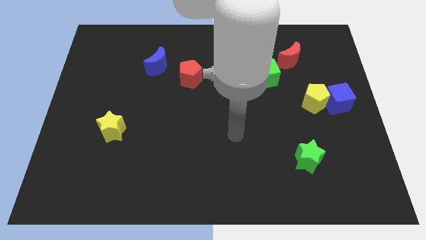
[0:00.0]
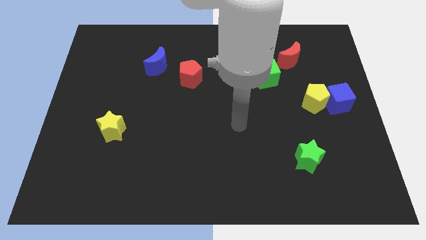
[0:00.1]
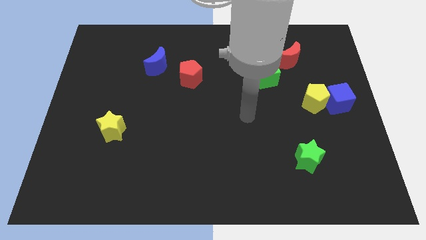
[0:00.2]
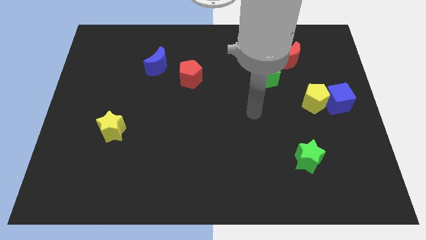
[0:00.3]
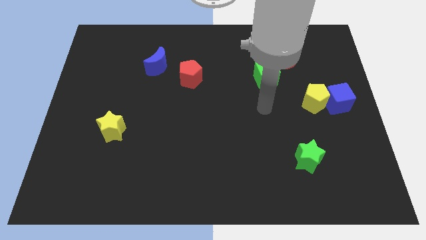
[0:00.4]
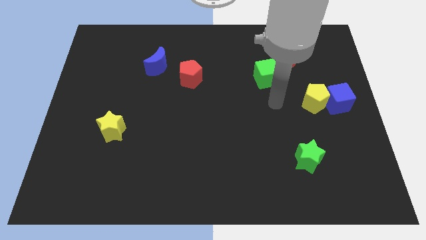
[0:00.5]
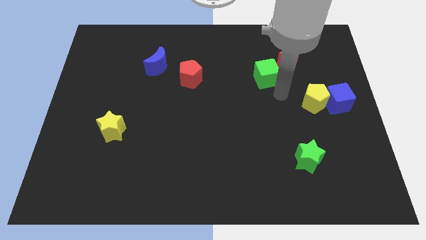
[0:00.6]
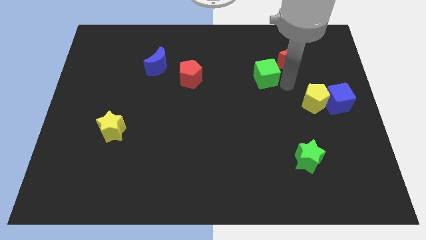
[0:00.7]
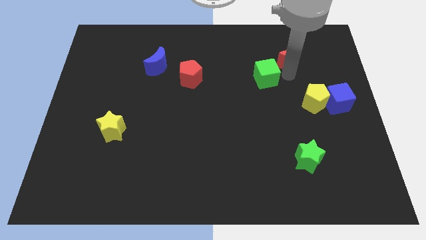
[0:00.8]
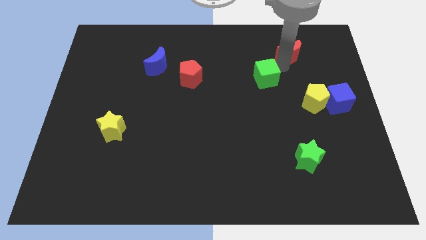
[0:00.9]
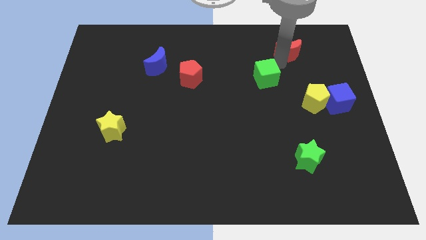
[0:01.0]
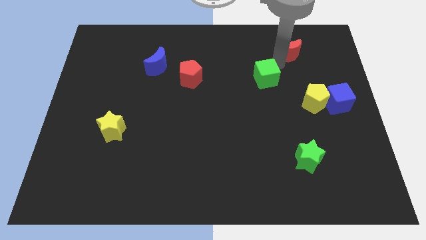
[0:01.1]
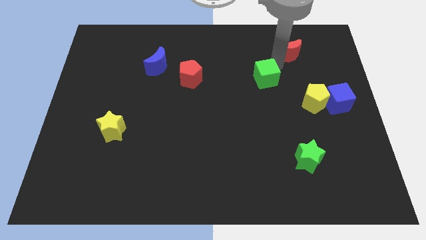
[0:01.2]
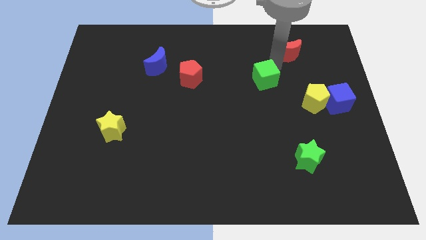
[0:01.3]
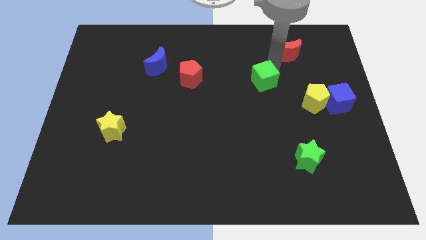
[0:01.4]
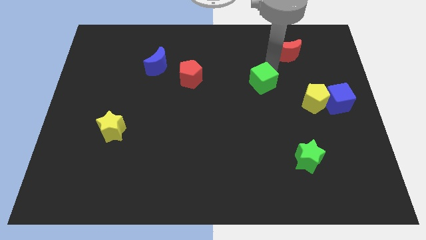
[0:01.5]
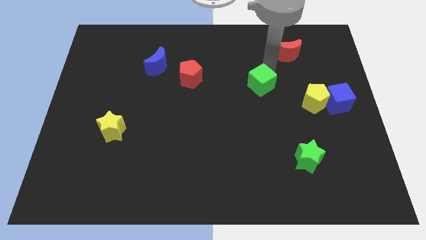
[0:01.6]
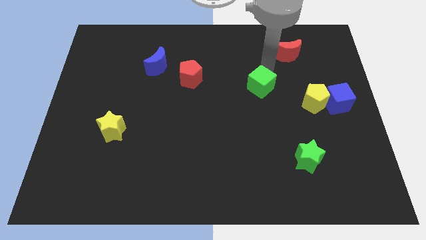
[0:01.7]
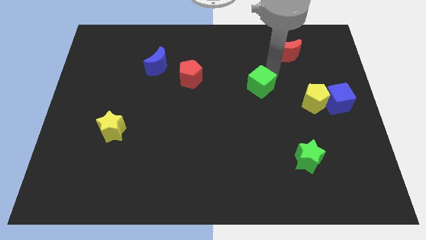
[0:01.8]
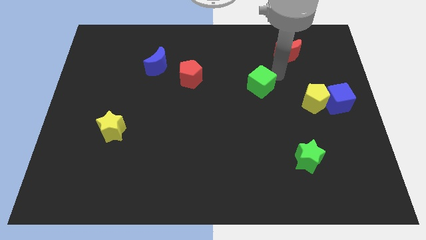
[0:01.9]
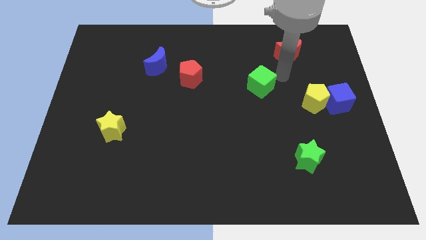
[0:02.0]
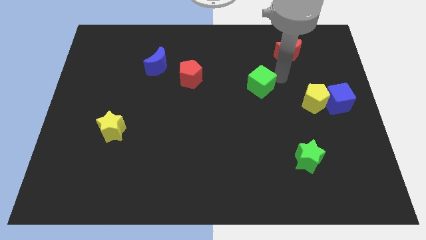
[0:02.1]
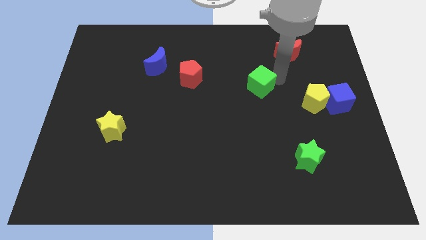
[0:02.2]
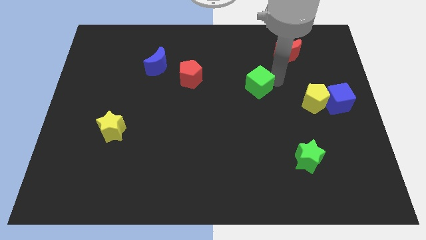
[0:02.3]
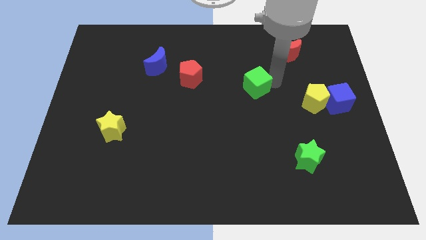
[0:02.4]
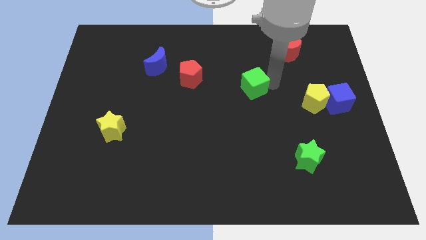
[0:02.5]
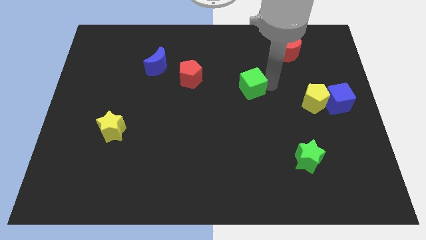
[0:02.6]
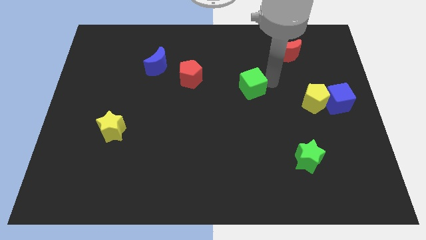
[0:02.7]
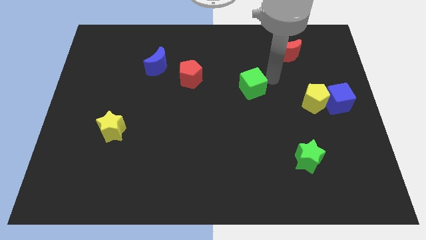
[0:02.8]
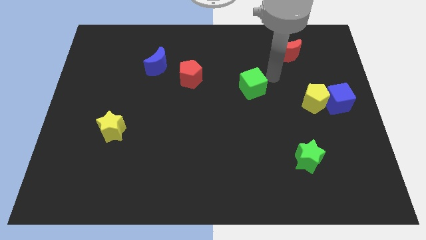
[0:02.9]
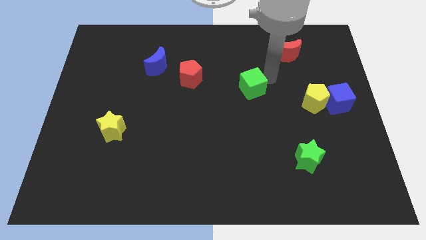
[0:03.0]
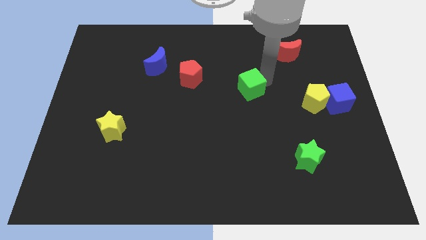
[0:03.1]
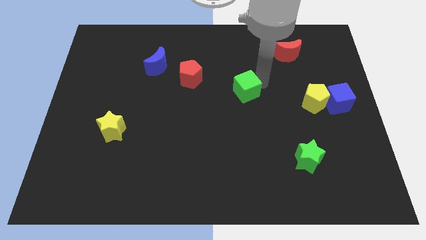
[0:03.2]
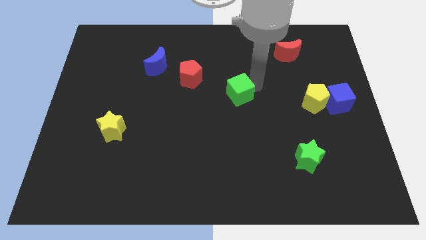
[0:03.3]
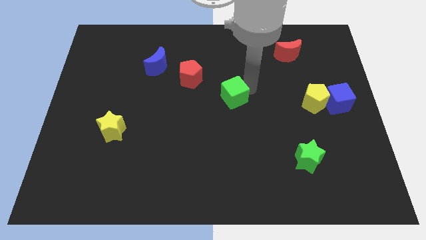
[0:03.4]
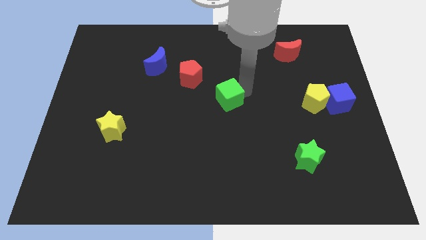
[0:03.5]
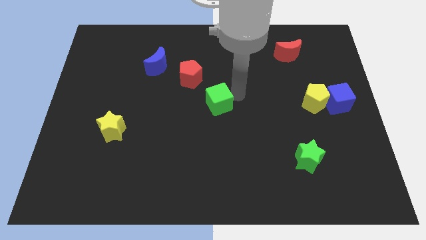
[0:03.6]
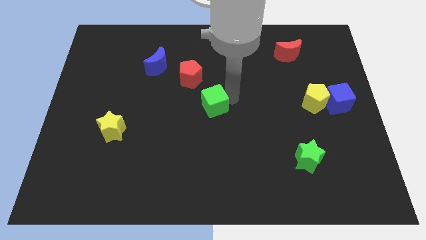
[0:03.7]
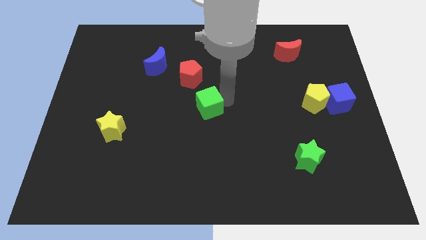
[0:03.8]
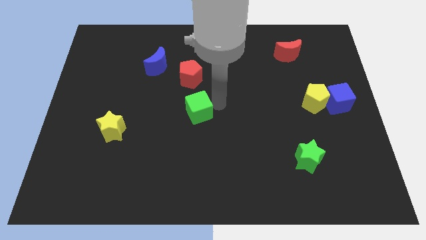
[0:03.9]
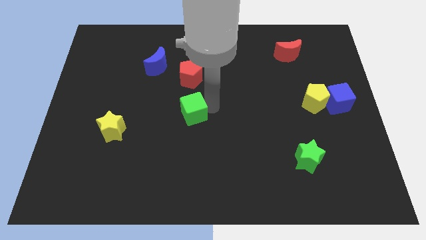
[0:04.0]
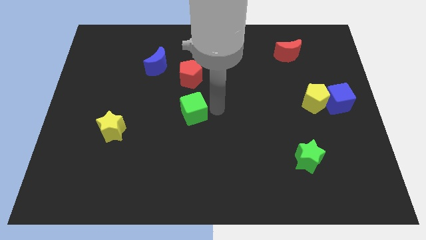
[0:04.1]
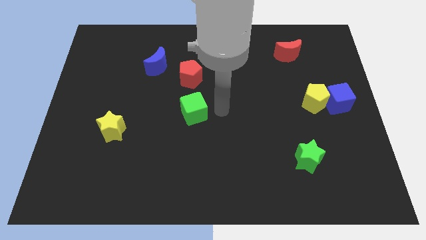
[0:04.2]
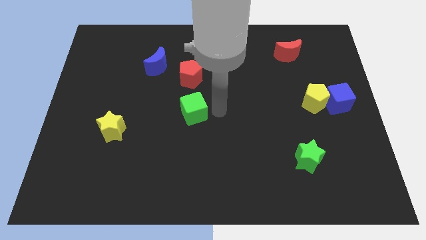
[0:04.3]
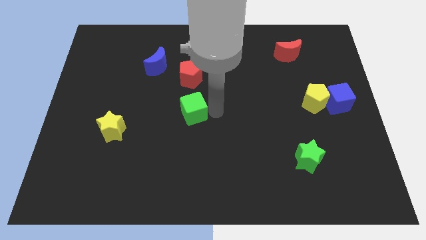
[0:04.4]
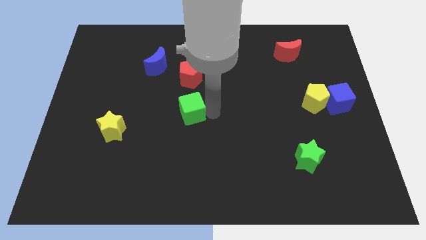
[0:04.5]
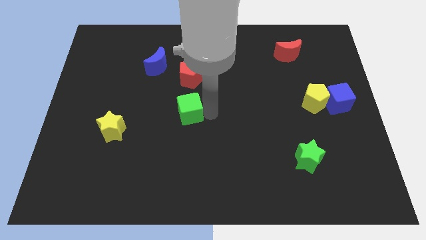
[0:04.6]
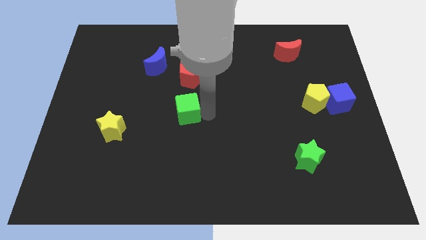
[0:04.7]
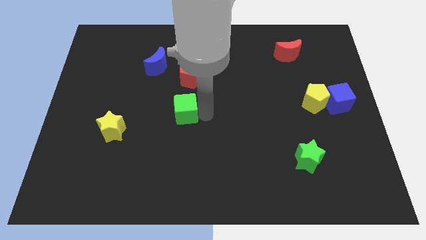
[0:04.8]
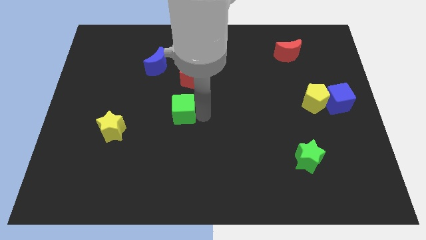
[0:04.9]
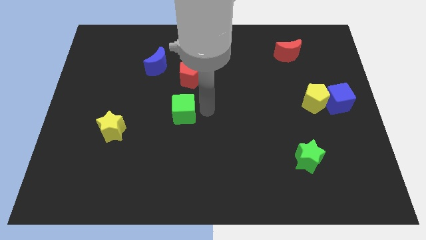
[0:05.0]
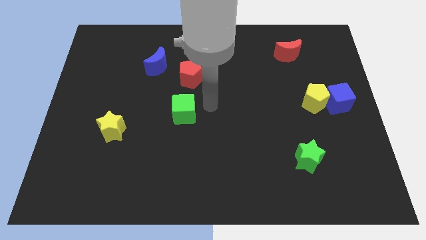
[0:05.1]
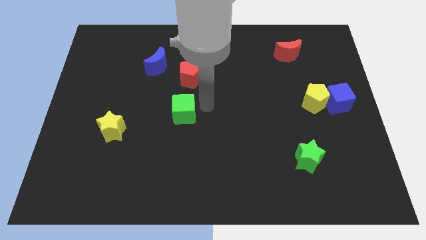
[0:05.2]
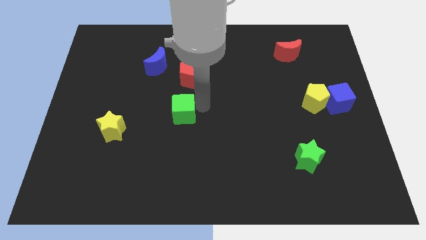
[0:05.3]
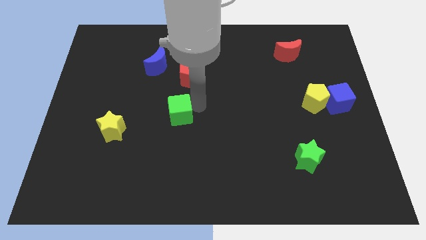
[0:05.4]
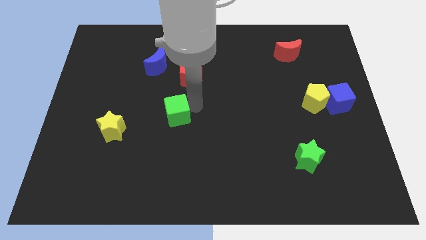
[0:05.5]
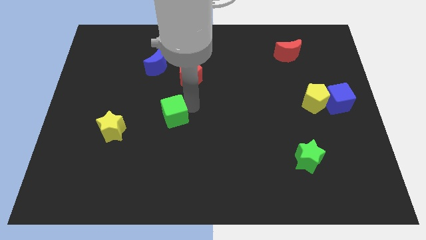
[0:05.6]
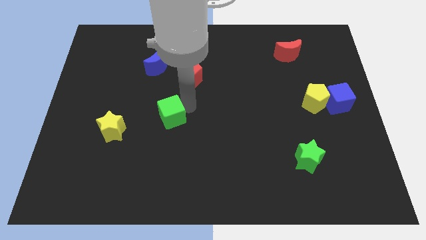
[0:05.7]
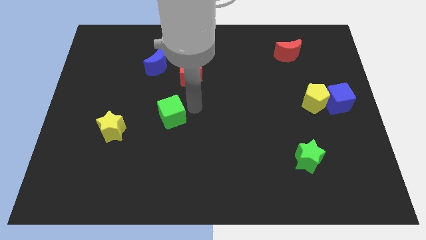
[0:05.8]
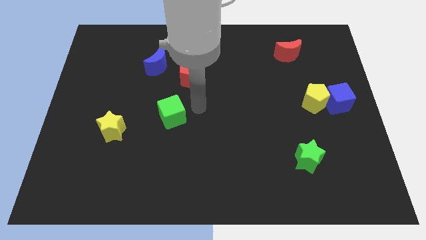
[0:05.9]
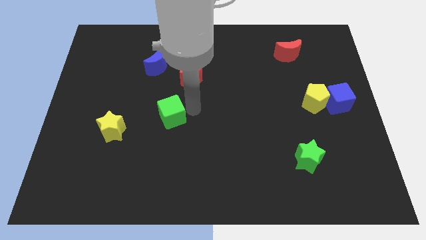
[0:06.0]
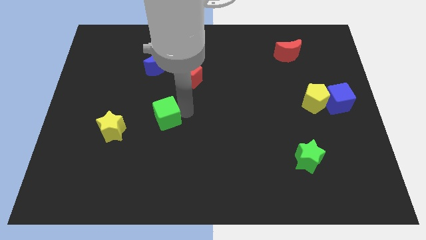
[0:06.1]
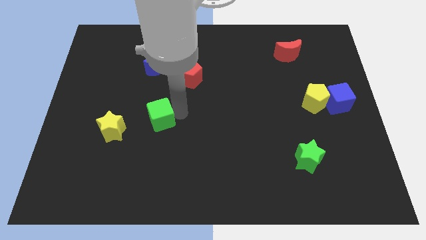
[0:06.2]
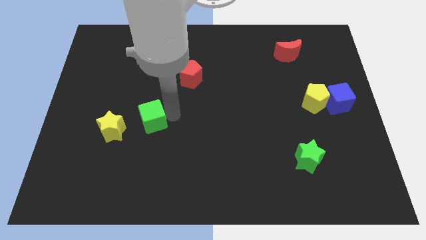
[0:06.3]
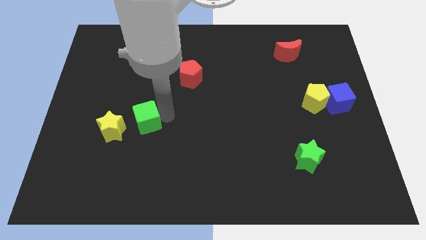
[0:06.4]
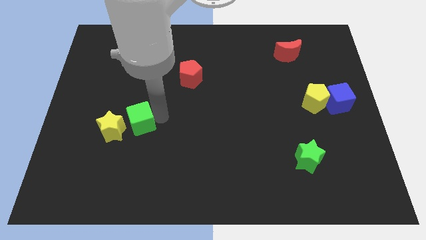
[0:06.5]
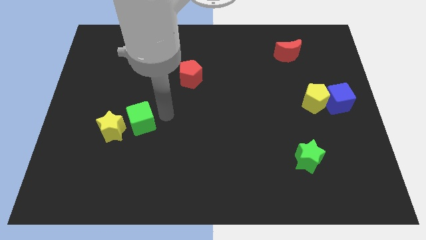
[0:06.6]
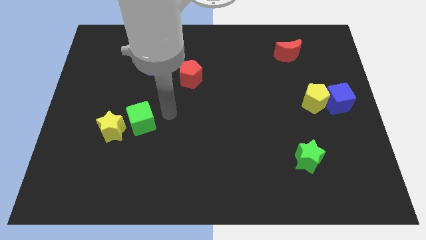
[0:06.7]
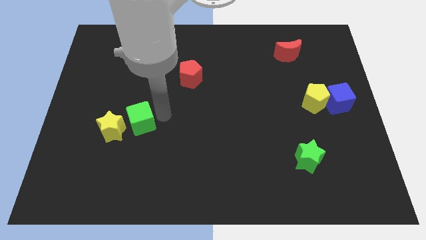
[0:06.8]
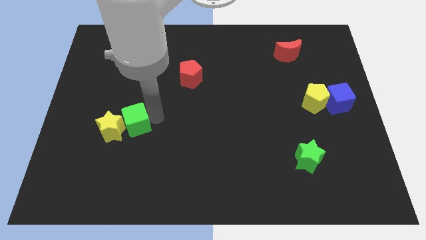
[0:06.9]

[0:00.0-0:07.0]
put the green cube to the yellow star

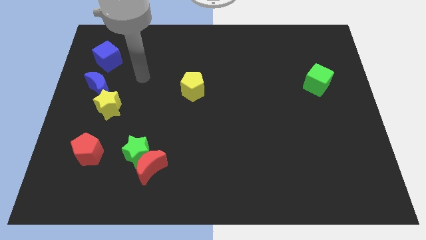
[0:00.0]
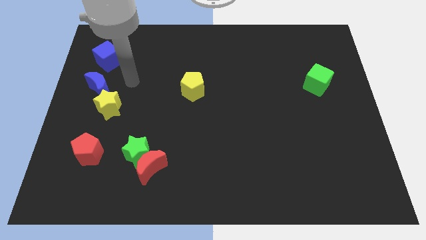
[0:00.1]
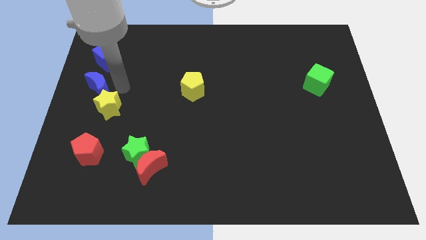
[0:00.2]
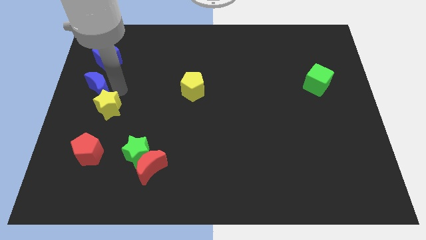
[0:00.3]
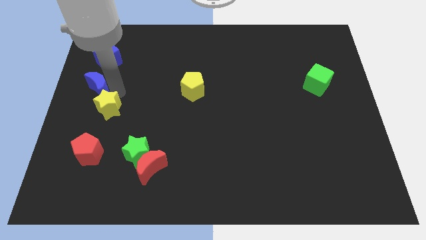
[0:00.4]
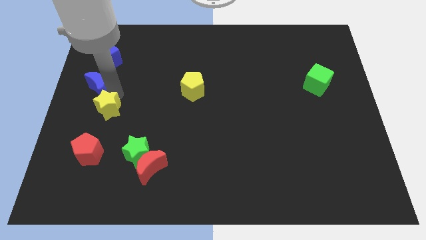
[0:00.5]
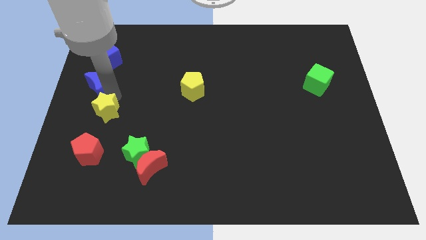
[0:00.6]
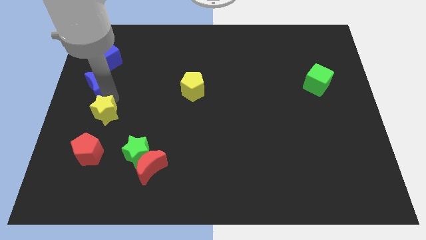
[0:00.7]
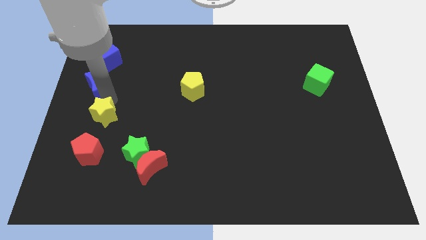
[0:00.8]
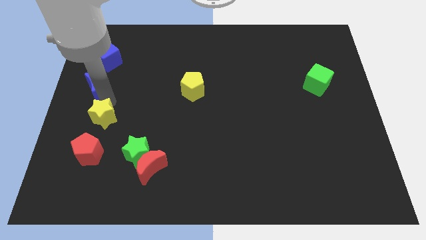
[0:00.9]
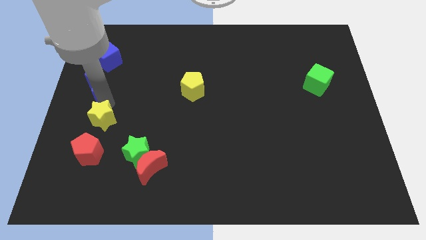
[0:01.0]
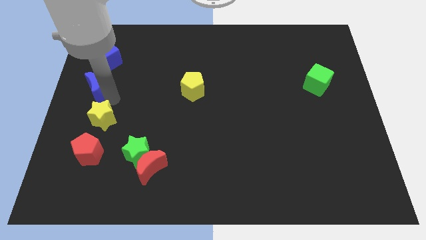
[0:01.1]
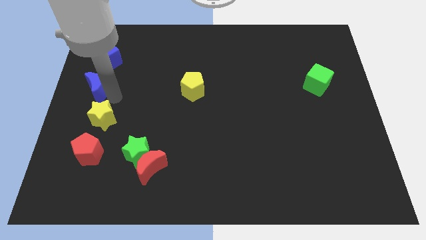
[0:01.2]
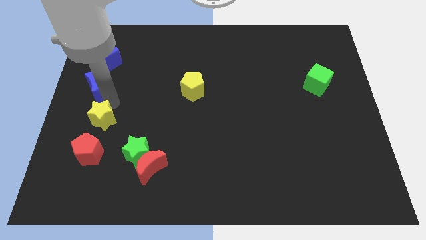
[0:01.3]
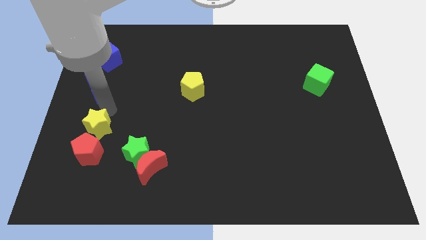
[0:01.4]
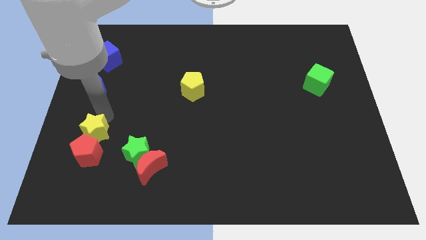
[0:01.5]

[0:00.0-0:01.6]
put the yellow star to the red pentagon
